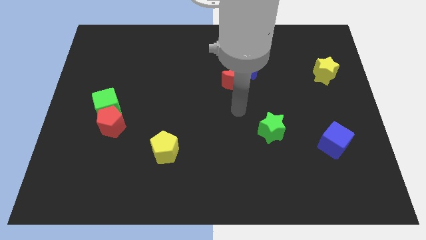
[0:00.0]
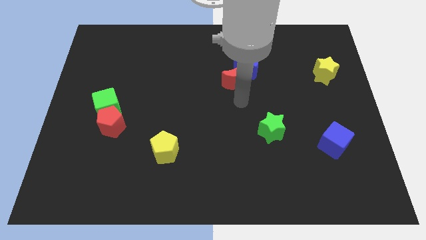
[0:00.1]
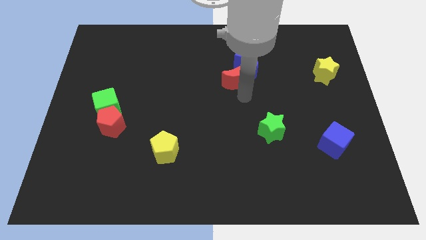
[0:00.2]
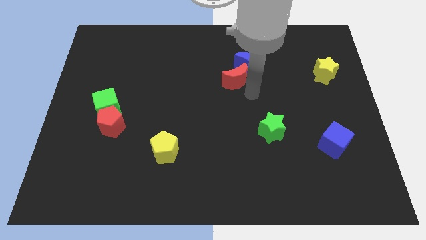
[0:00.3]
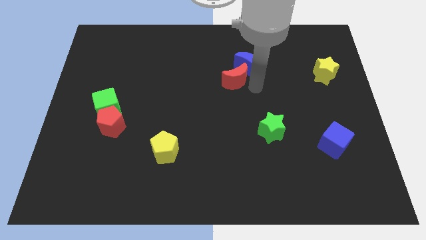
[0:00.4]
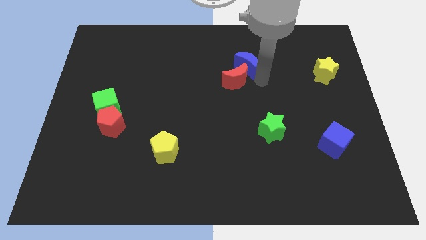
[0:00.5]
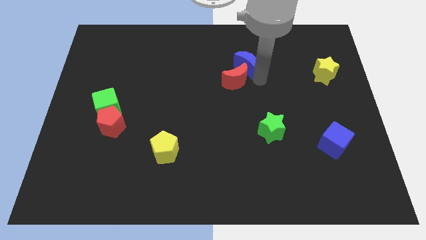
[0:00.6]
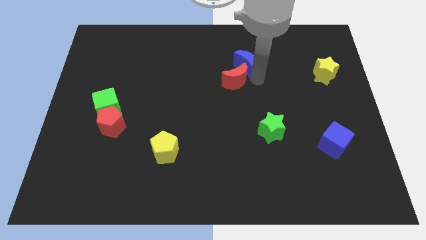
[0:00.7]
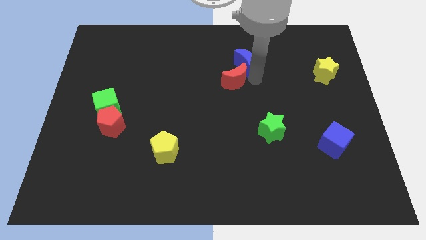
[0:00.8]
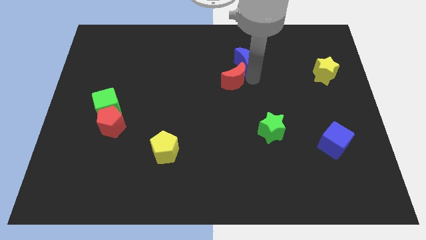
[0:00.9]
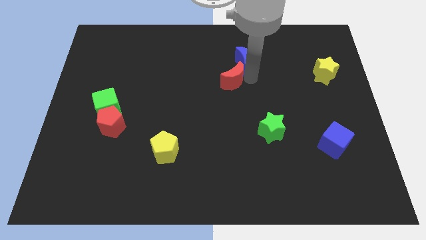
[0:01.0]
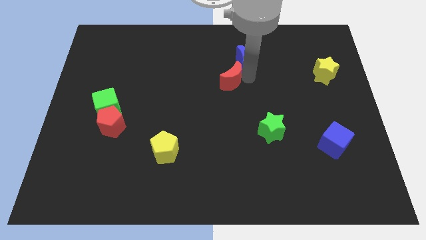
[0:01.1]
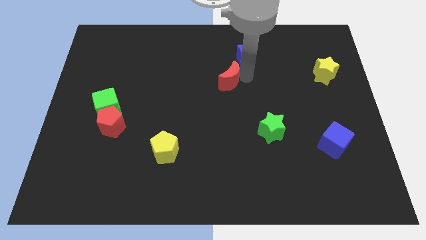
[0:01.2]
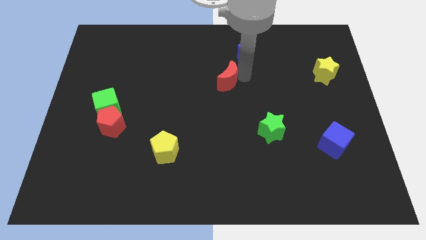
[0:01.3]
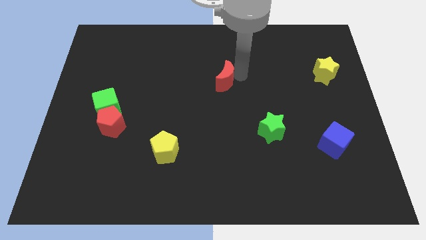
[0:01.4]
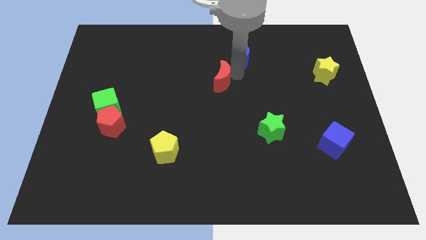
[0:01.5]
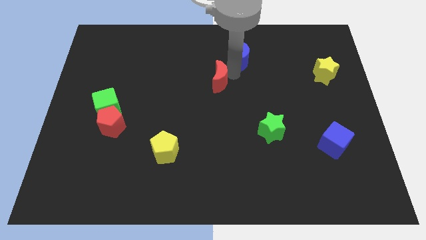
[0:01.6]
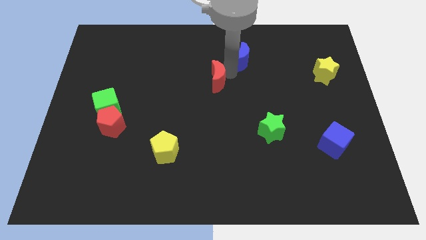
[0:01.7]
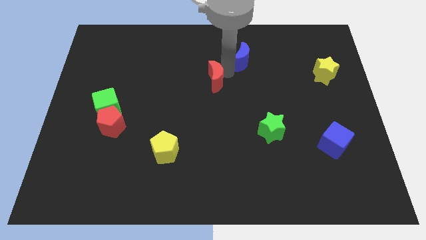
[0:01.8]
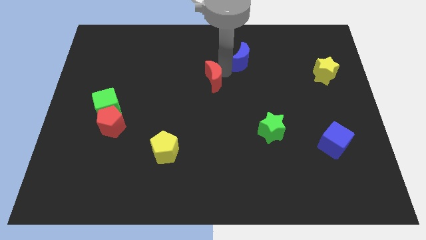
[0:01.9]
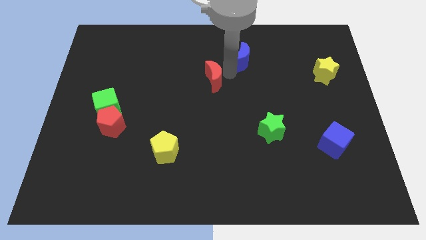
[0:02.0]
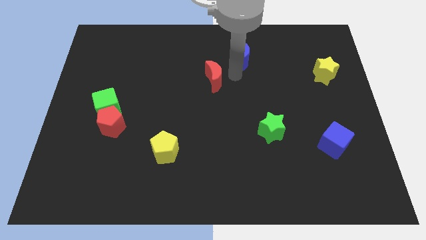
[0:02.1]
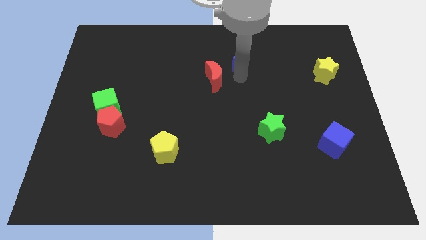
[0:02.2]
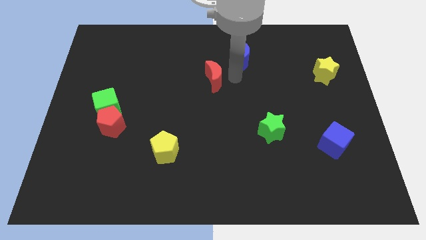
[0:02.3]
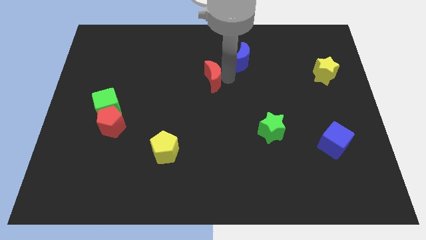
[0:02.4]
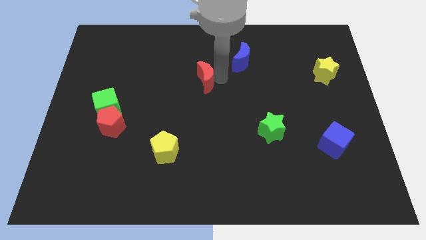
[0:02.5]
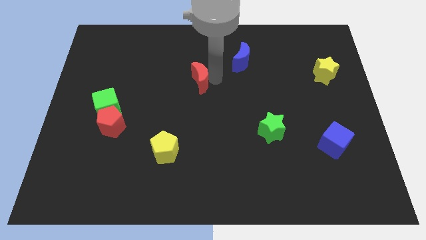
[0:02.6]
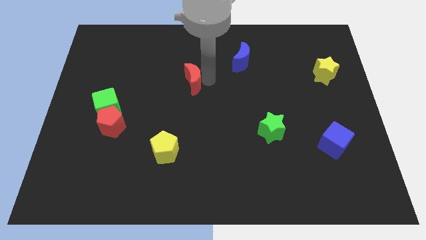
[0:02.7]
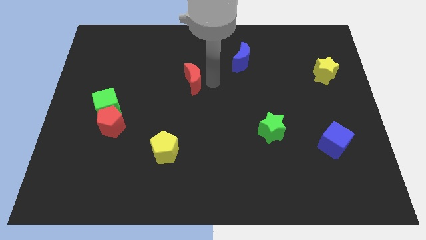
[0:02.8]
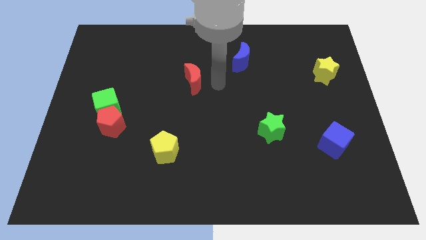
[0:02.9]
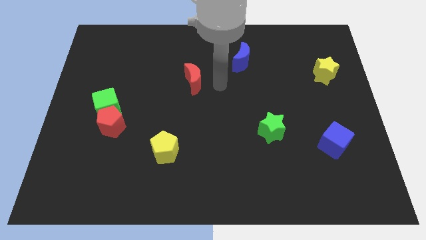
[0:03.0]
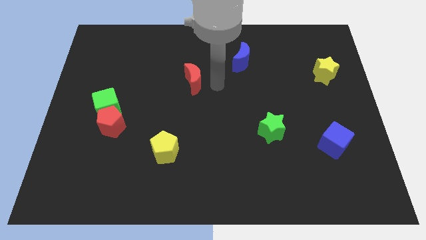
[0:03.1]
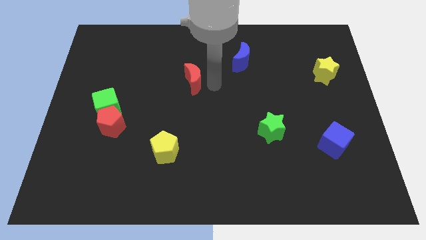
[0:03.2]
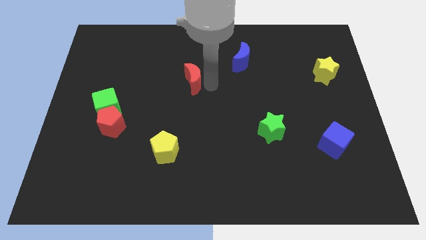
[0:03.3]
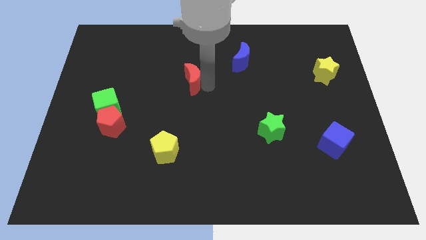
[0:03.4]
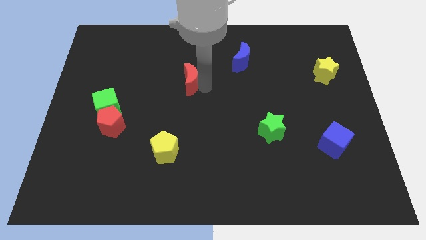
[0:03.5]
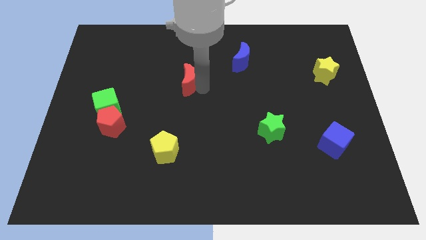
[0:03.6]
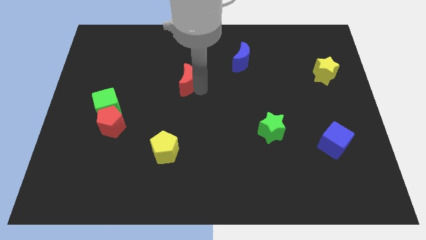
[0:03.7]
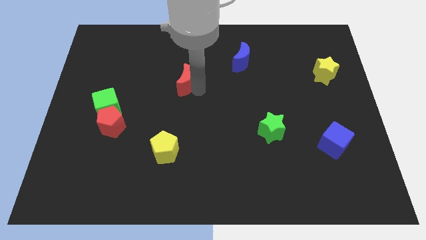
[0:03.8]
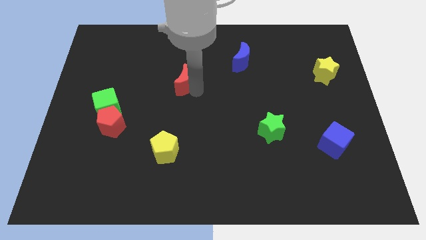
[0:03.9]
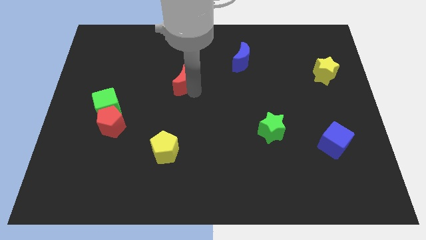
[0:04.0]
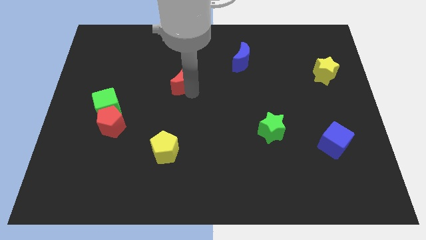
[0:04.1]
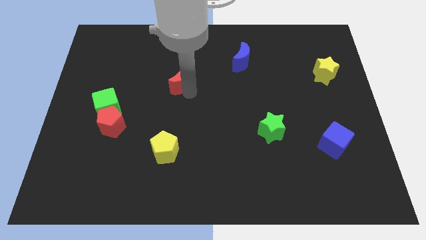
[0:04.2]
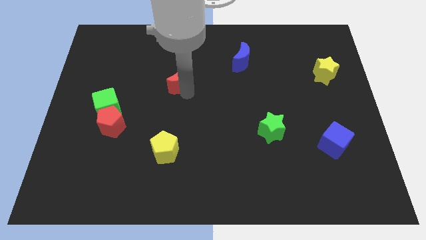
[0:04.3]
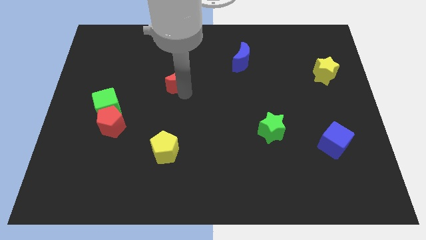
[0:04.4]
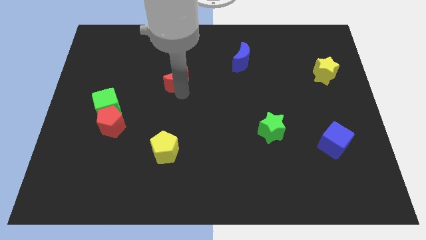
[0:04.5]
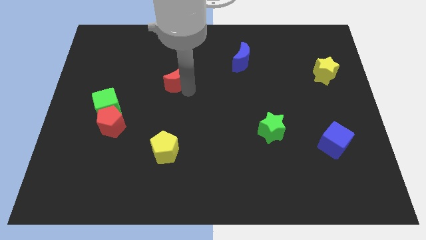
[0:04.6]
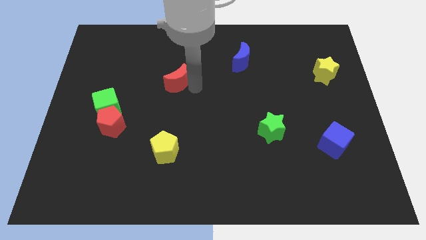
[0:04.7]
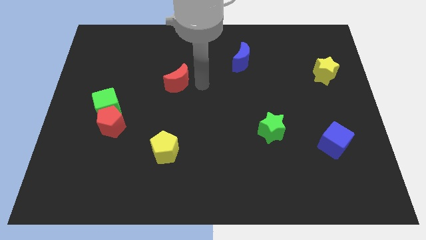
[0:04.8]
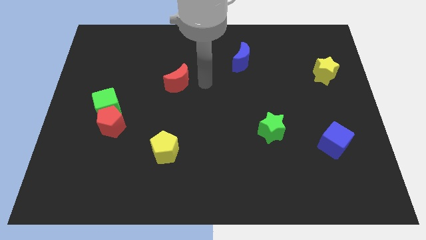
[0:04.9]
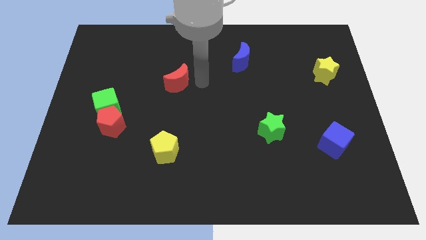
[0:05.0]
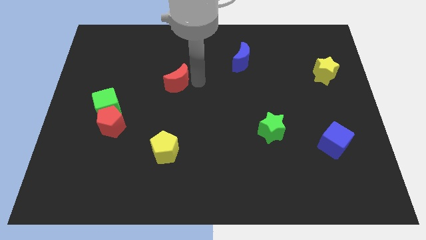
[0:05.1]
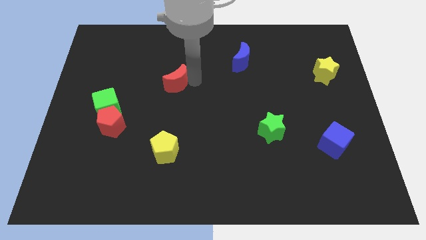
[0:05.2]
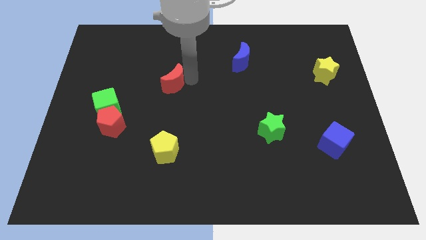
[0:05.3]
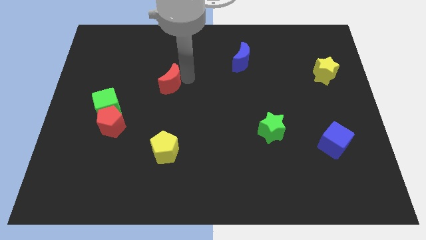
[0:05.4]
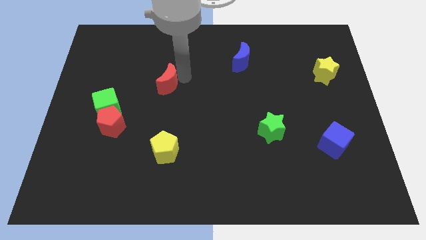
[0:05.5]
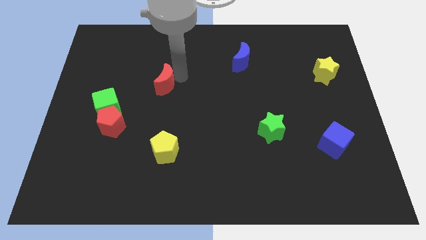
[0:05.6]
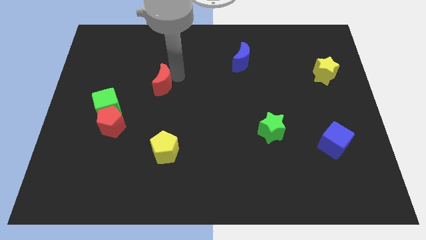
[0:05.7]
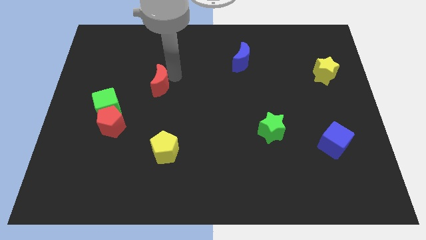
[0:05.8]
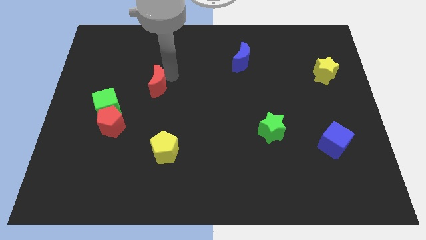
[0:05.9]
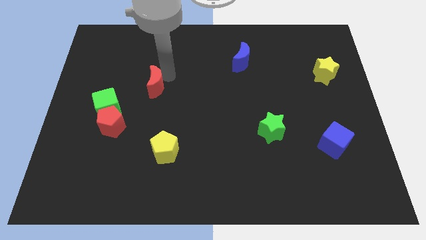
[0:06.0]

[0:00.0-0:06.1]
push the red moon to the left

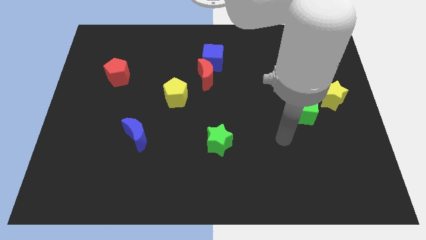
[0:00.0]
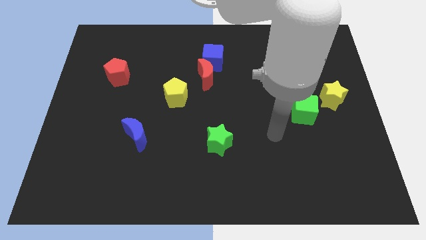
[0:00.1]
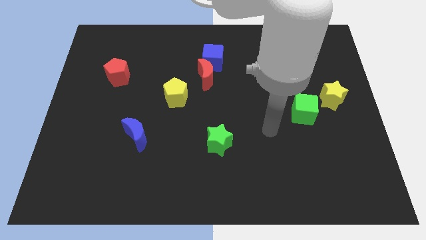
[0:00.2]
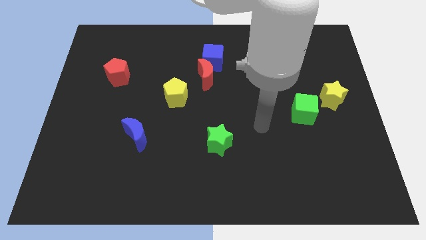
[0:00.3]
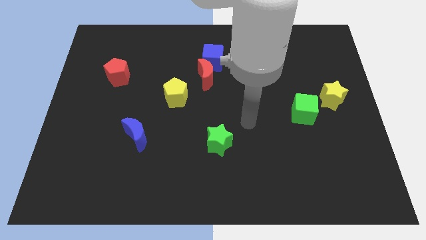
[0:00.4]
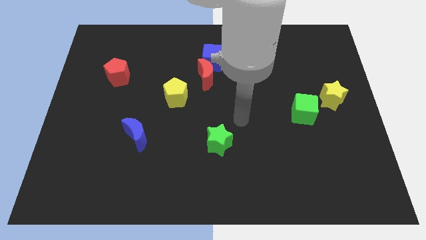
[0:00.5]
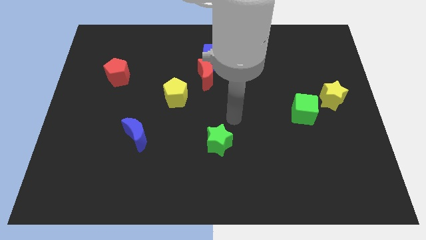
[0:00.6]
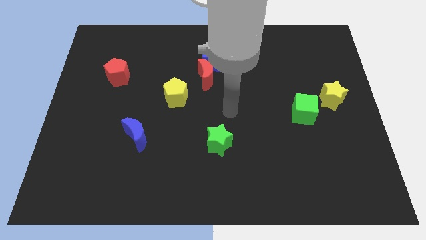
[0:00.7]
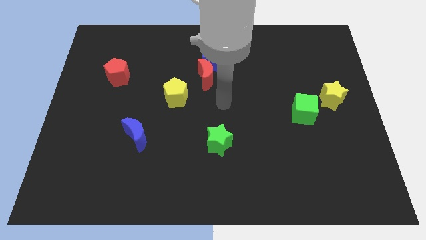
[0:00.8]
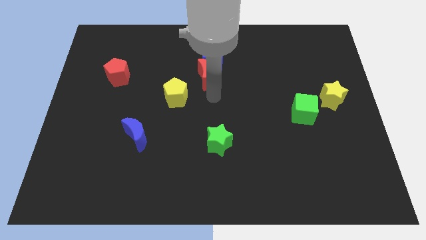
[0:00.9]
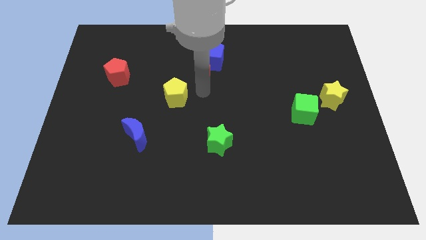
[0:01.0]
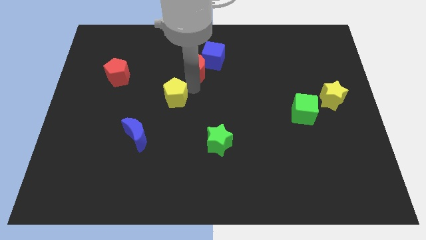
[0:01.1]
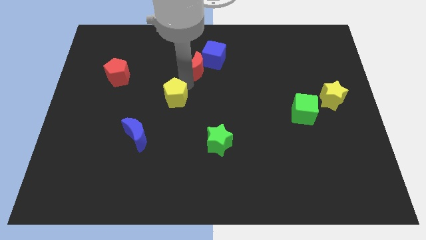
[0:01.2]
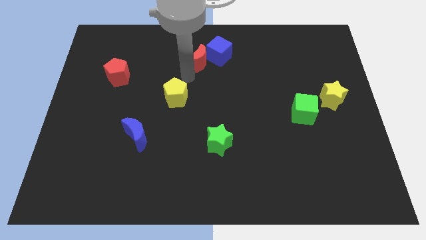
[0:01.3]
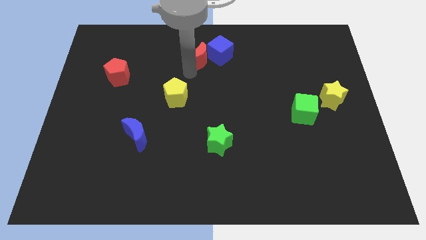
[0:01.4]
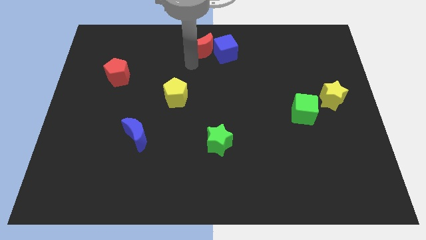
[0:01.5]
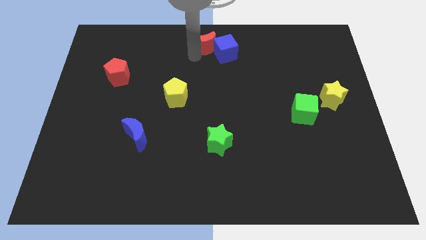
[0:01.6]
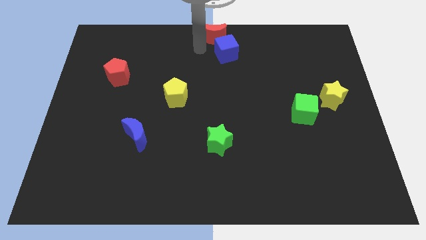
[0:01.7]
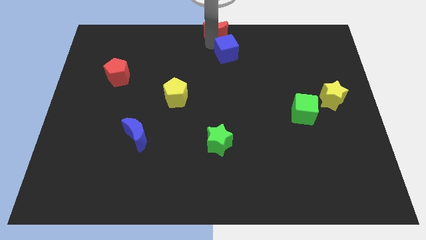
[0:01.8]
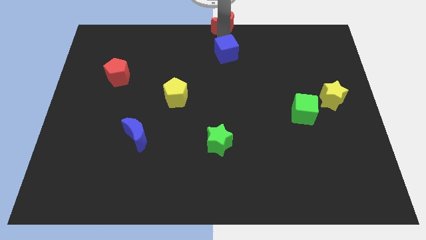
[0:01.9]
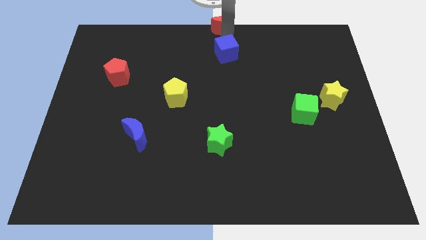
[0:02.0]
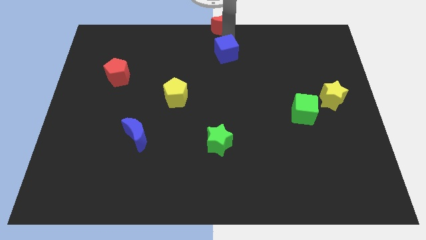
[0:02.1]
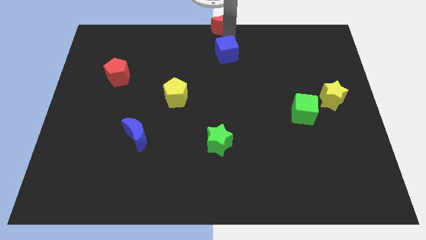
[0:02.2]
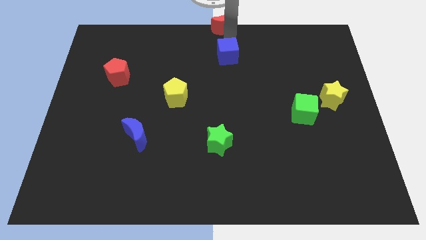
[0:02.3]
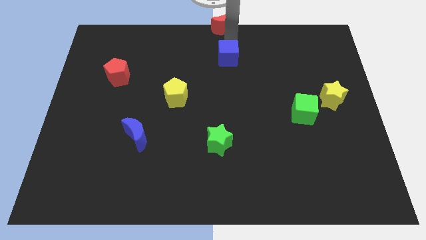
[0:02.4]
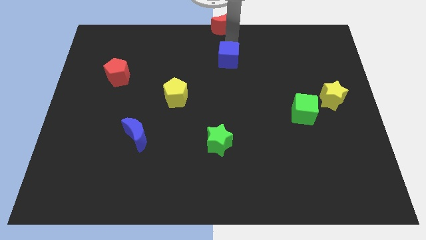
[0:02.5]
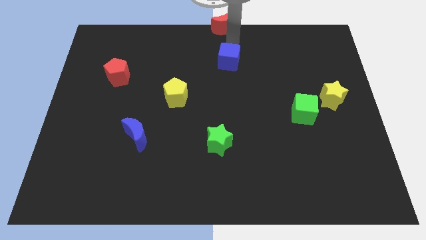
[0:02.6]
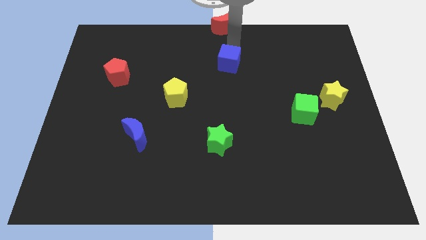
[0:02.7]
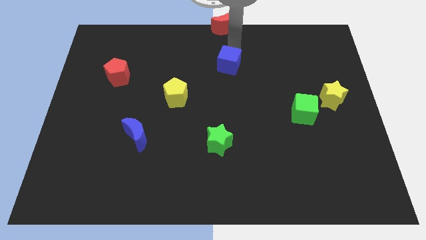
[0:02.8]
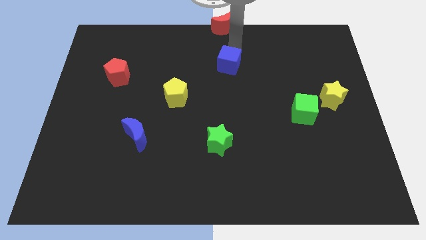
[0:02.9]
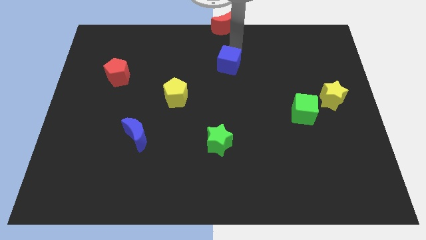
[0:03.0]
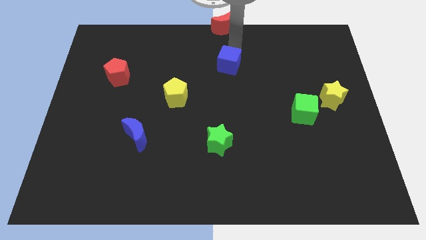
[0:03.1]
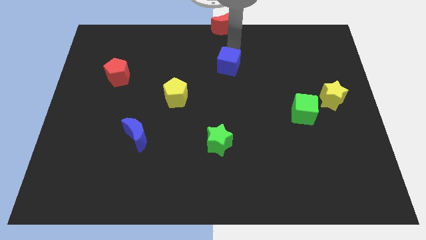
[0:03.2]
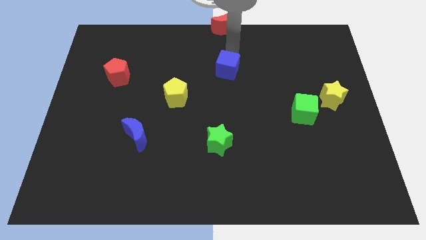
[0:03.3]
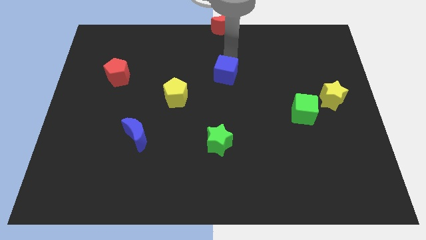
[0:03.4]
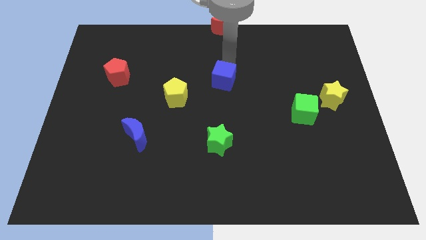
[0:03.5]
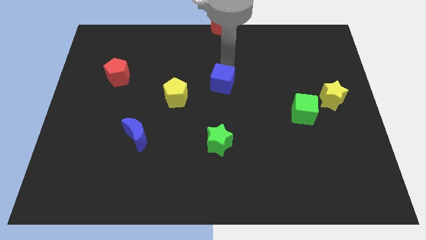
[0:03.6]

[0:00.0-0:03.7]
slide the blue cube down slightly
